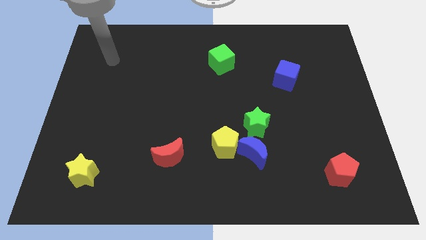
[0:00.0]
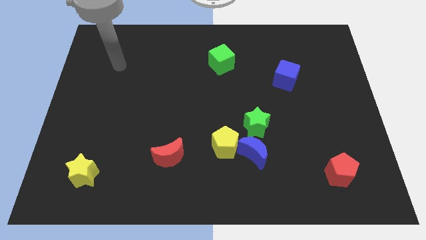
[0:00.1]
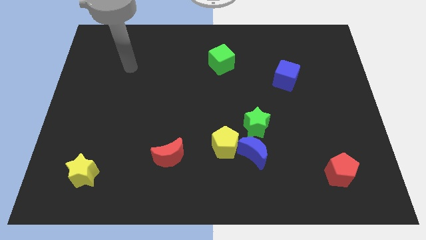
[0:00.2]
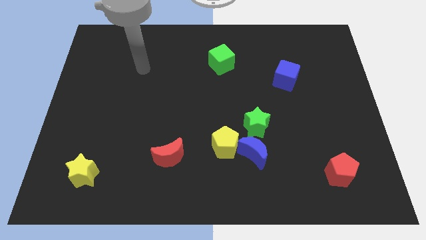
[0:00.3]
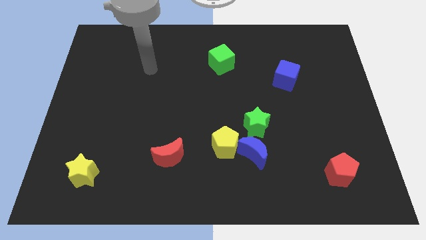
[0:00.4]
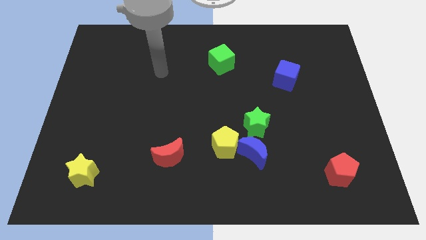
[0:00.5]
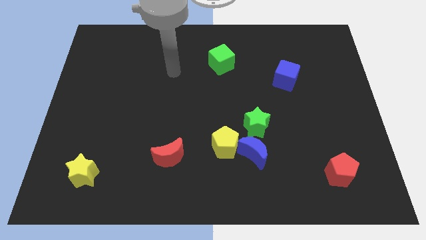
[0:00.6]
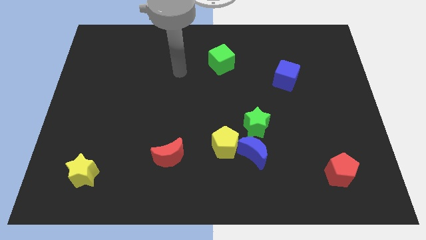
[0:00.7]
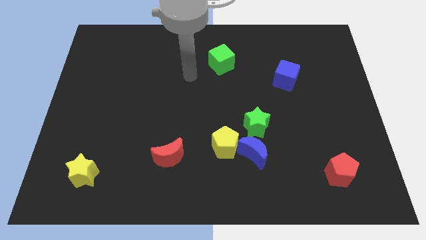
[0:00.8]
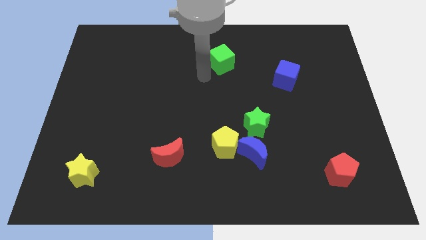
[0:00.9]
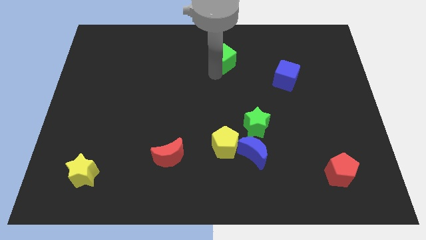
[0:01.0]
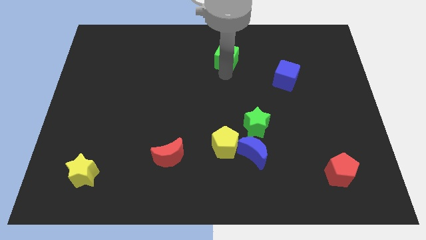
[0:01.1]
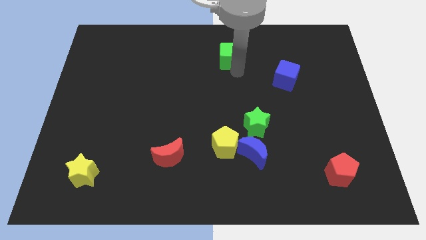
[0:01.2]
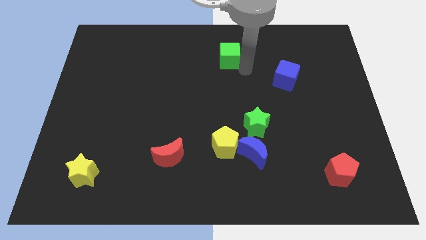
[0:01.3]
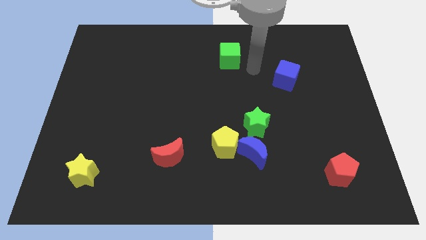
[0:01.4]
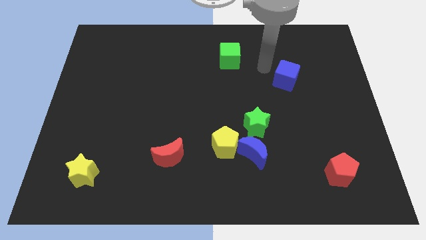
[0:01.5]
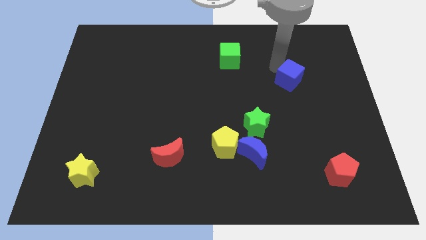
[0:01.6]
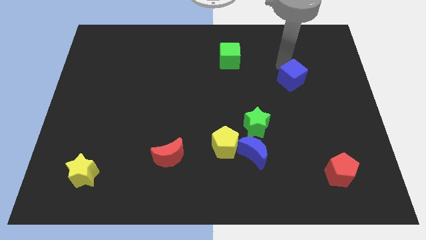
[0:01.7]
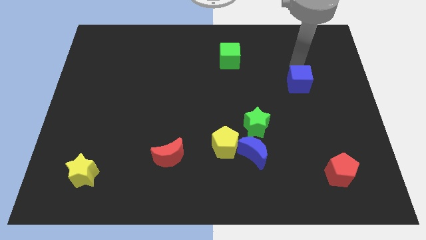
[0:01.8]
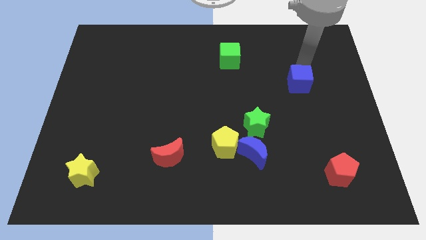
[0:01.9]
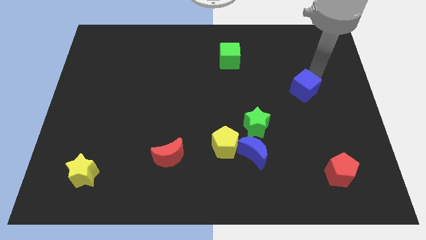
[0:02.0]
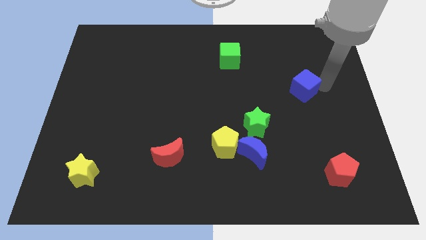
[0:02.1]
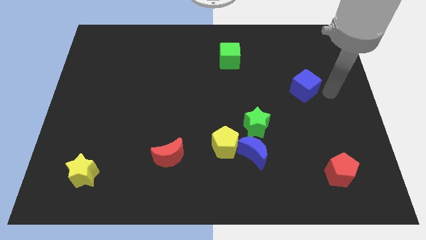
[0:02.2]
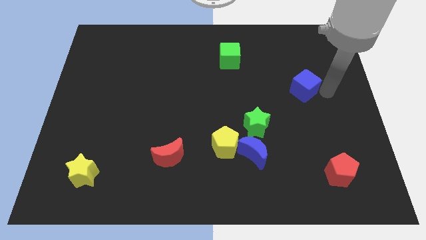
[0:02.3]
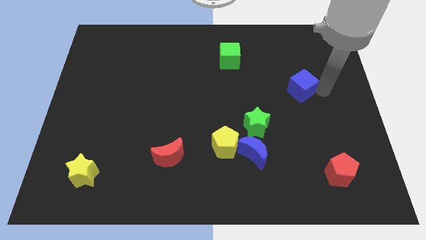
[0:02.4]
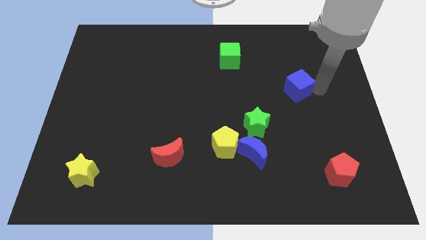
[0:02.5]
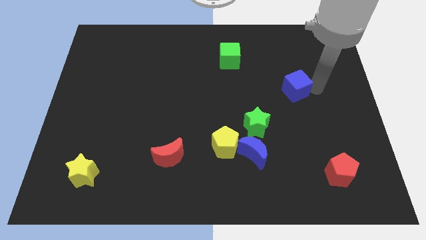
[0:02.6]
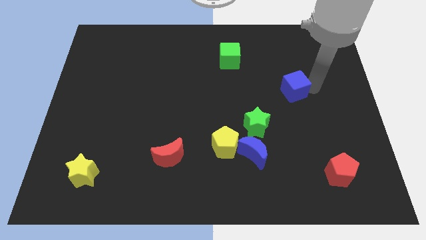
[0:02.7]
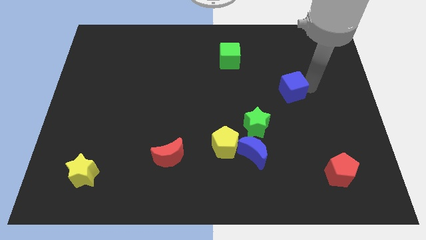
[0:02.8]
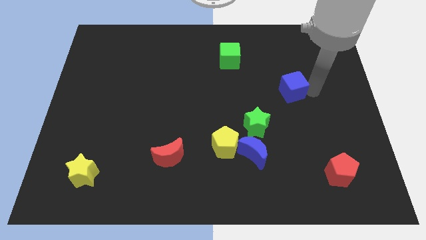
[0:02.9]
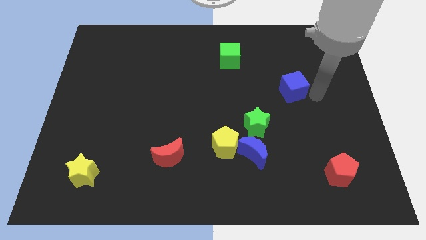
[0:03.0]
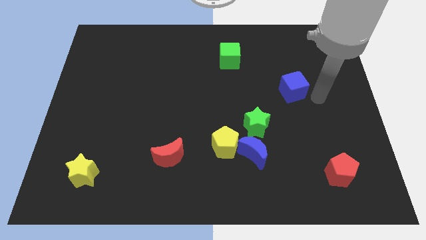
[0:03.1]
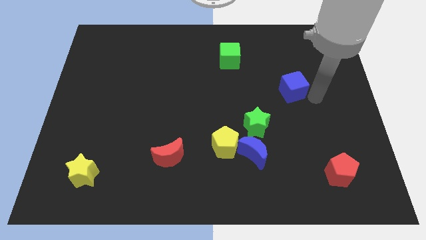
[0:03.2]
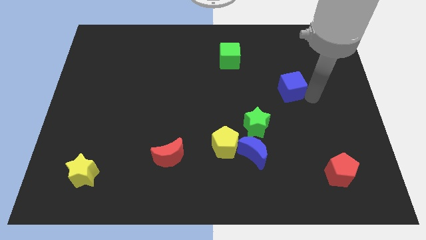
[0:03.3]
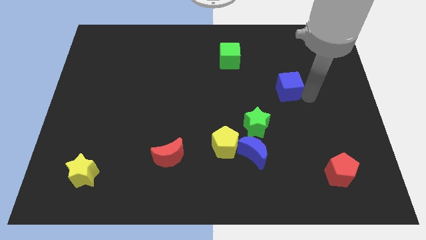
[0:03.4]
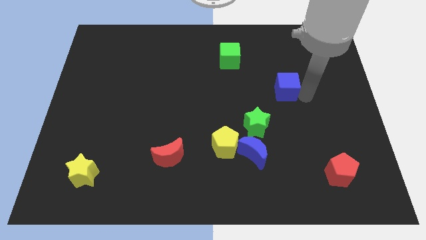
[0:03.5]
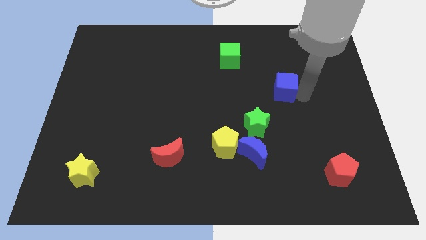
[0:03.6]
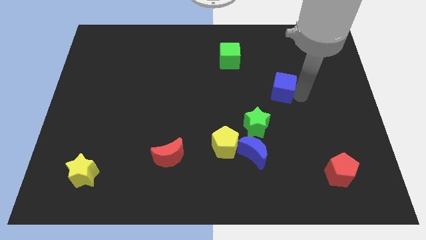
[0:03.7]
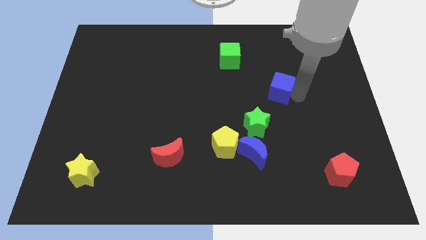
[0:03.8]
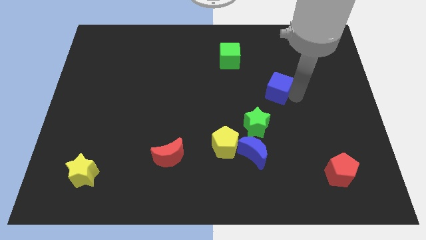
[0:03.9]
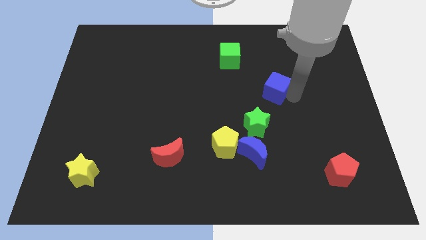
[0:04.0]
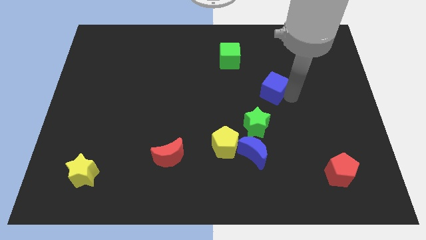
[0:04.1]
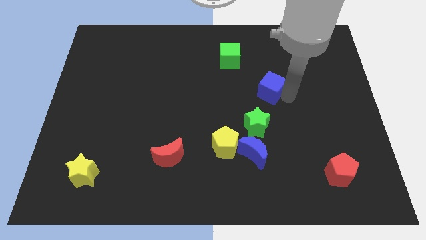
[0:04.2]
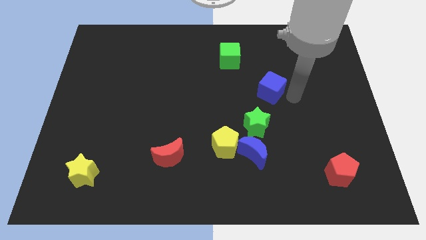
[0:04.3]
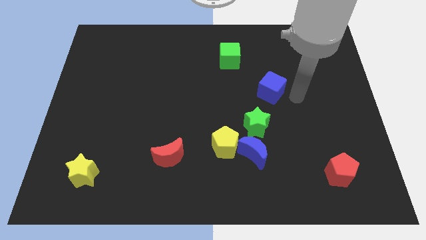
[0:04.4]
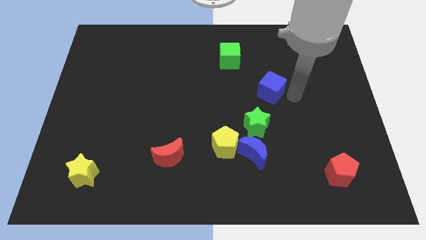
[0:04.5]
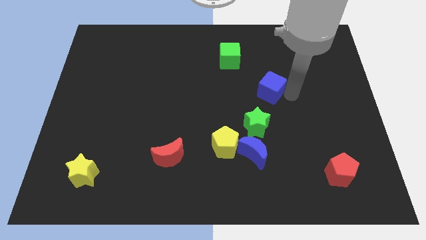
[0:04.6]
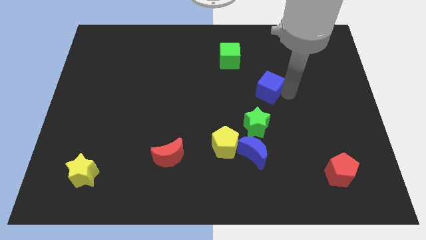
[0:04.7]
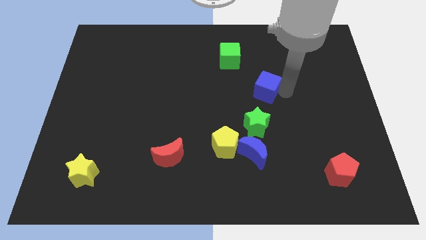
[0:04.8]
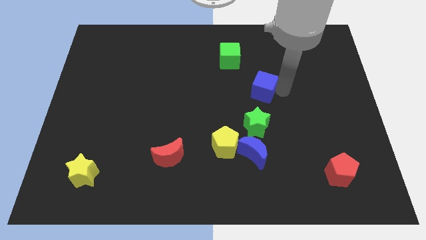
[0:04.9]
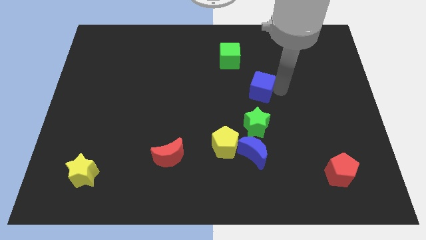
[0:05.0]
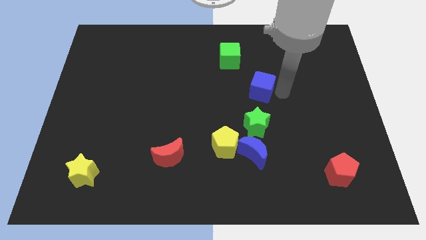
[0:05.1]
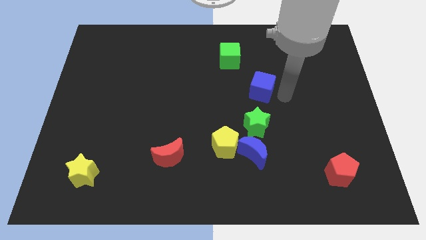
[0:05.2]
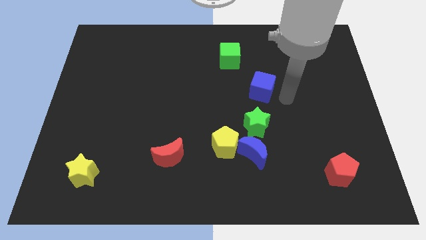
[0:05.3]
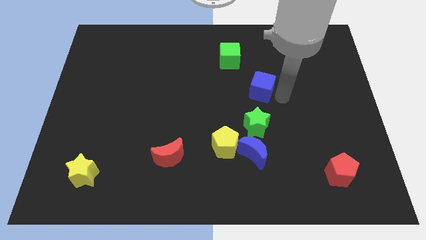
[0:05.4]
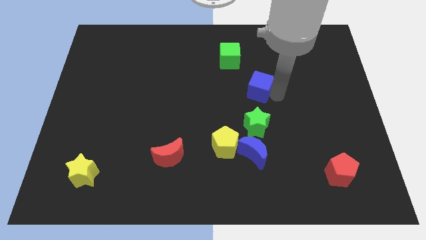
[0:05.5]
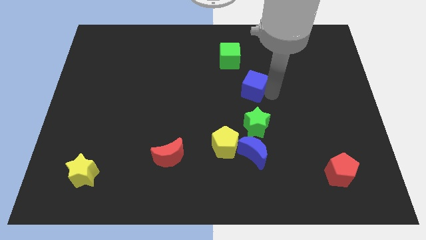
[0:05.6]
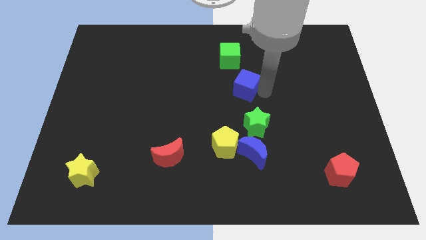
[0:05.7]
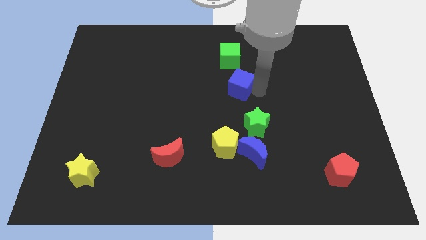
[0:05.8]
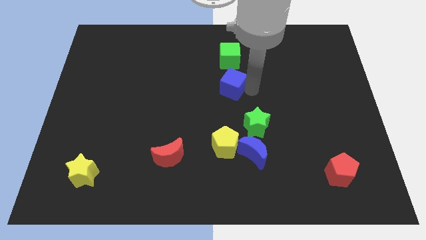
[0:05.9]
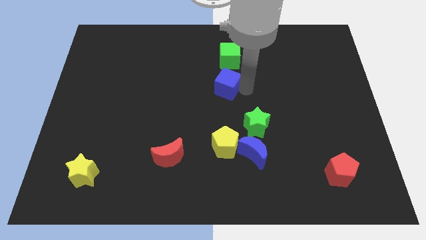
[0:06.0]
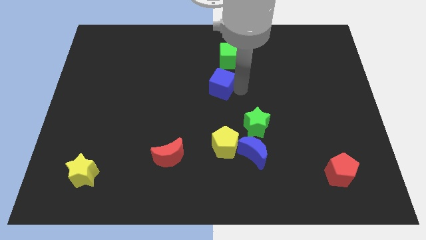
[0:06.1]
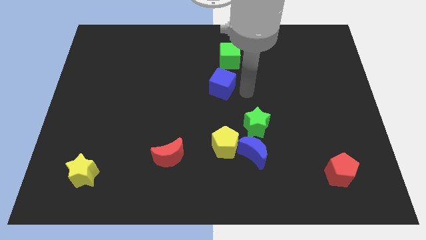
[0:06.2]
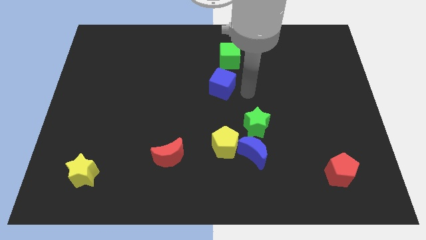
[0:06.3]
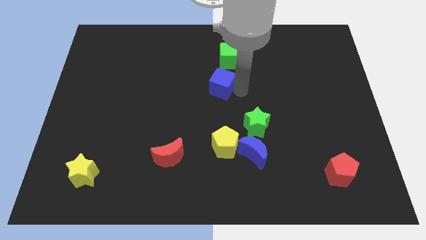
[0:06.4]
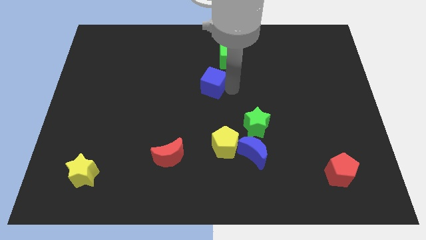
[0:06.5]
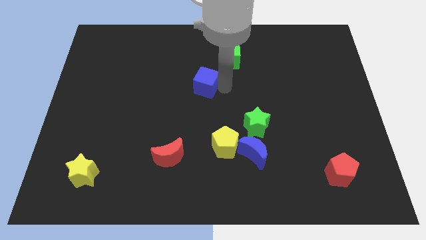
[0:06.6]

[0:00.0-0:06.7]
move the blue cube left

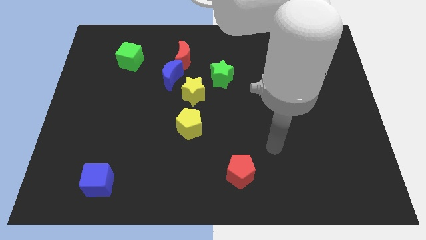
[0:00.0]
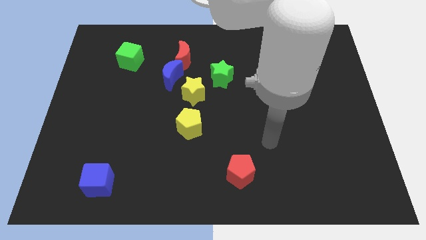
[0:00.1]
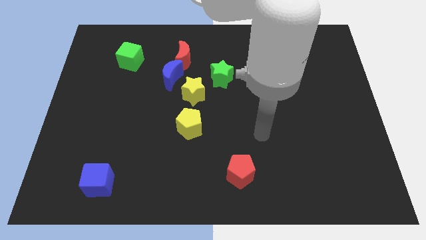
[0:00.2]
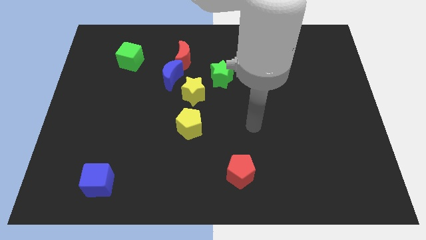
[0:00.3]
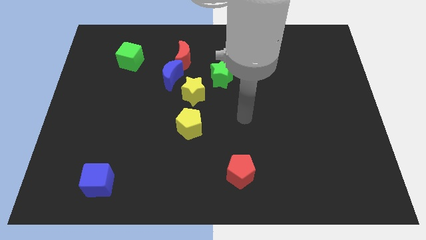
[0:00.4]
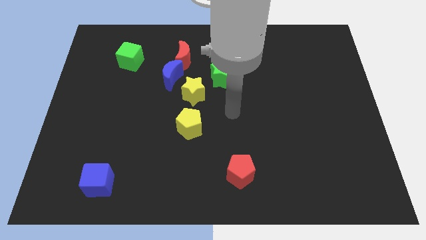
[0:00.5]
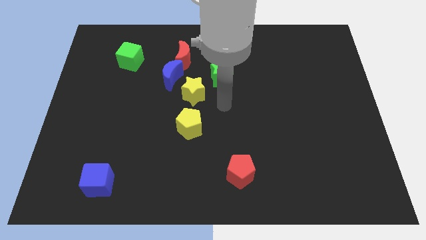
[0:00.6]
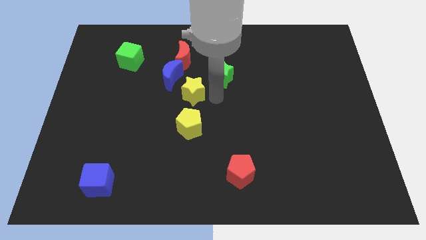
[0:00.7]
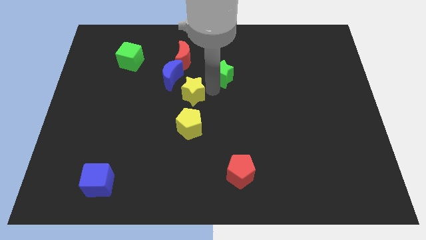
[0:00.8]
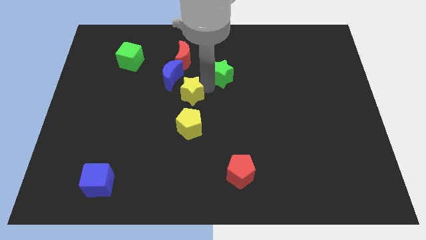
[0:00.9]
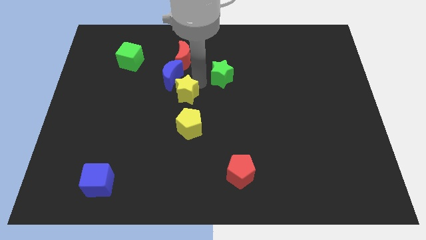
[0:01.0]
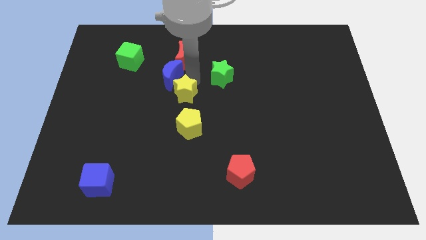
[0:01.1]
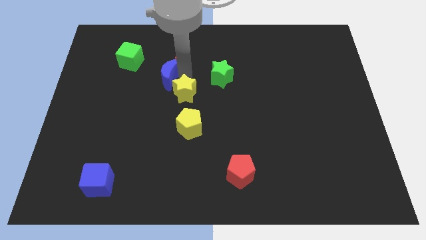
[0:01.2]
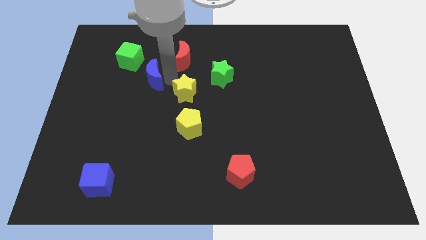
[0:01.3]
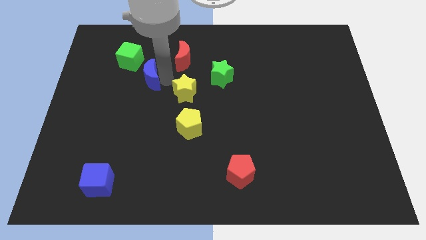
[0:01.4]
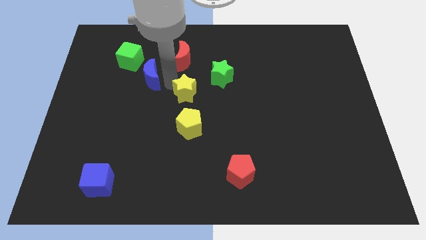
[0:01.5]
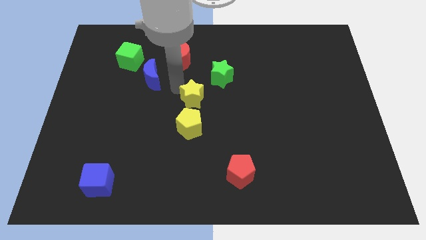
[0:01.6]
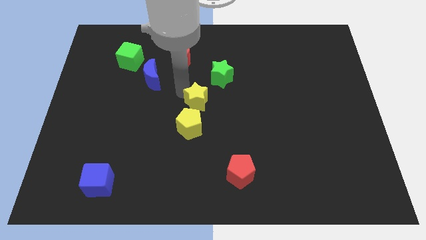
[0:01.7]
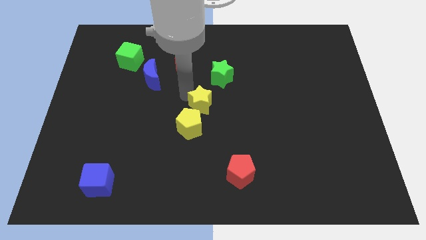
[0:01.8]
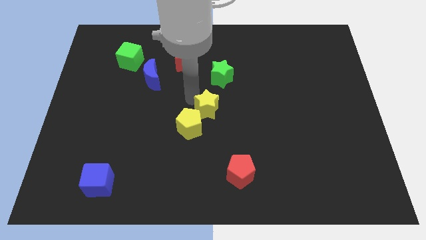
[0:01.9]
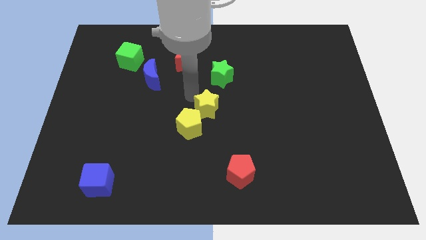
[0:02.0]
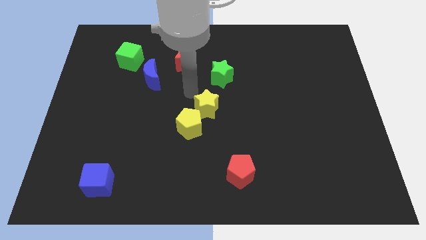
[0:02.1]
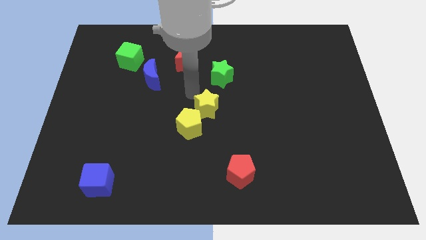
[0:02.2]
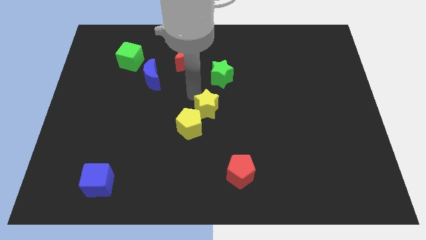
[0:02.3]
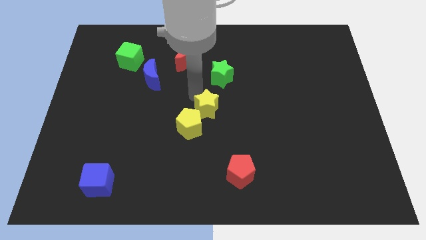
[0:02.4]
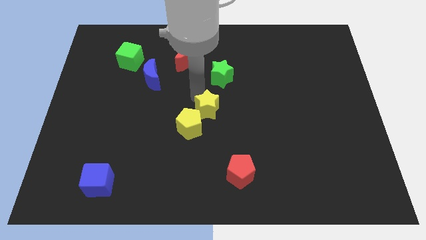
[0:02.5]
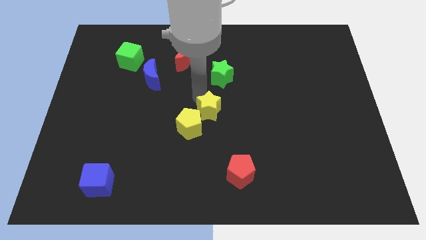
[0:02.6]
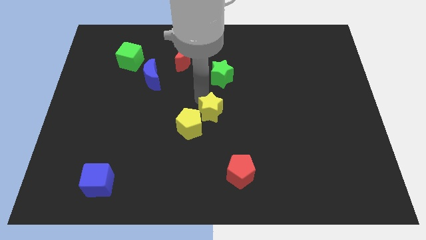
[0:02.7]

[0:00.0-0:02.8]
slightly move the yellow star downwards and then right
